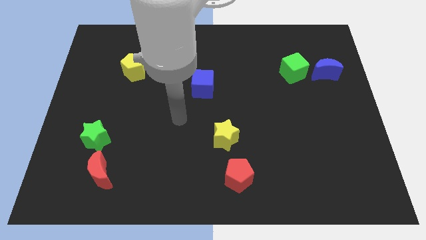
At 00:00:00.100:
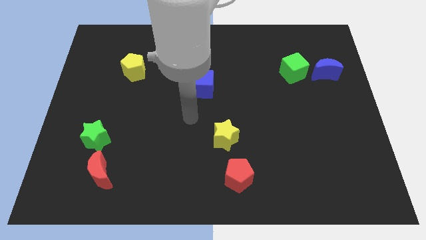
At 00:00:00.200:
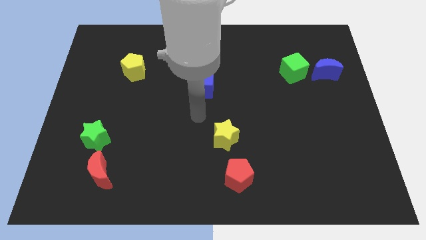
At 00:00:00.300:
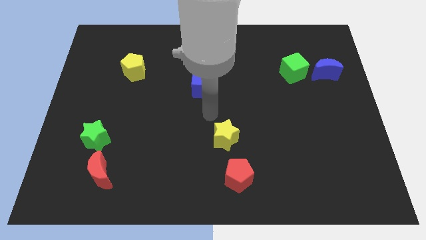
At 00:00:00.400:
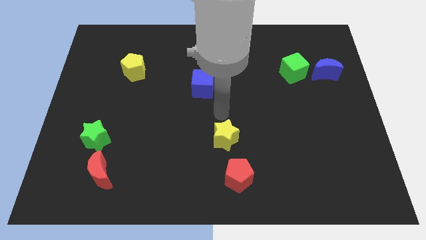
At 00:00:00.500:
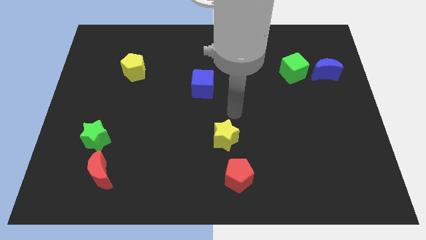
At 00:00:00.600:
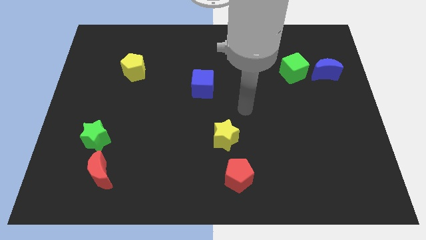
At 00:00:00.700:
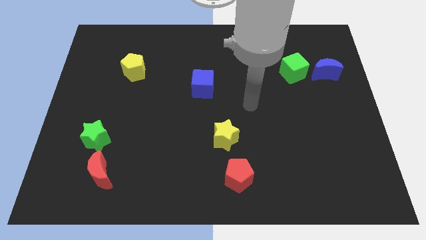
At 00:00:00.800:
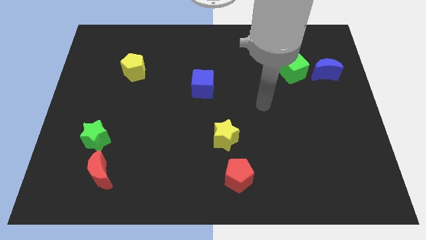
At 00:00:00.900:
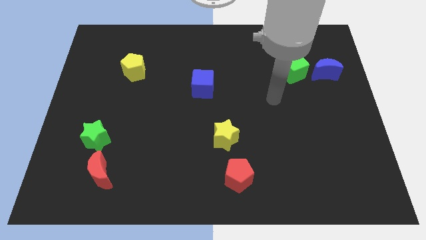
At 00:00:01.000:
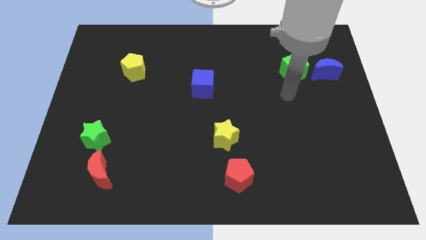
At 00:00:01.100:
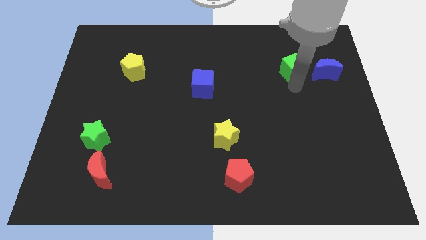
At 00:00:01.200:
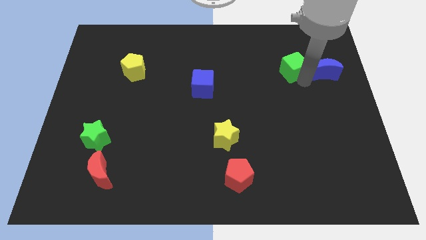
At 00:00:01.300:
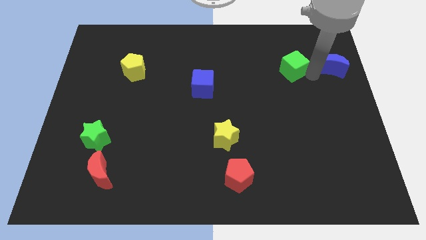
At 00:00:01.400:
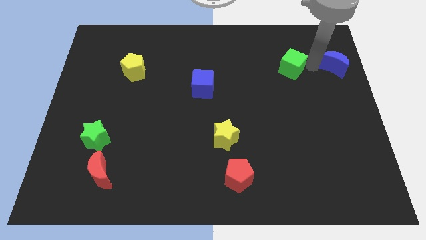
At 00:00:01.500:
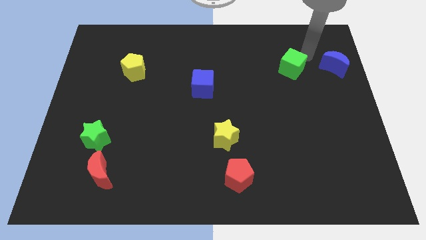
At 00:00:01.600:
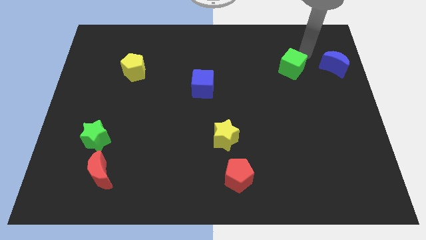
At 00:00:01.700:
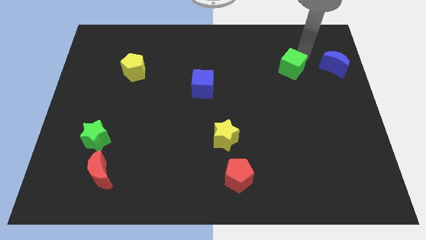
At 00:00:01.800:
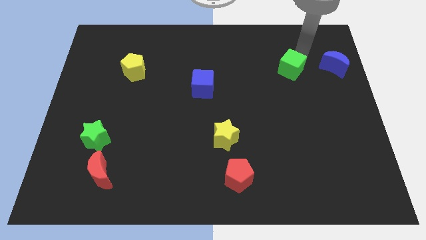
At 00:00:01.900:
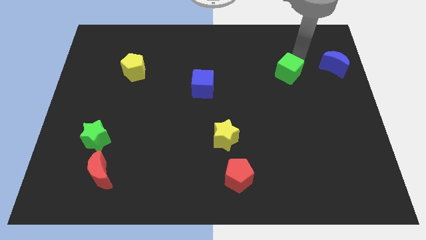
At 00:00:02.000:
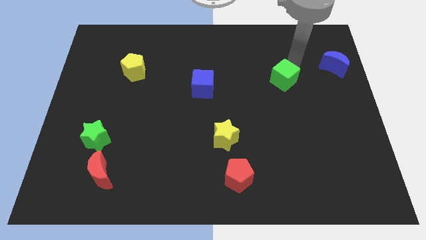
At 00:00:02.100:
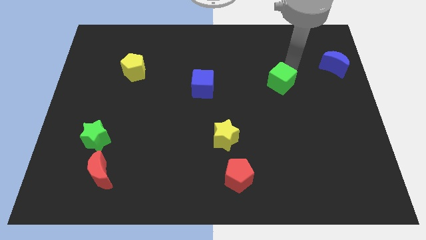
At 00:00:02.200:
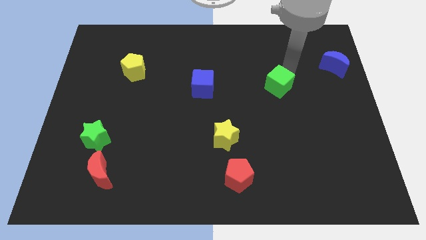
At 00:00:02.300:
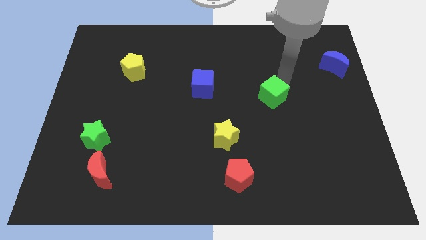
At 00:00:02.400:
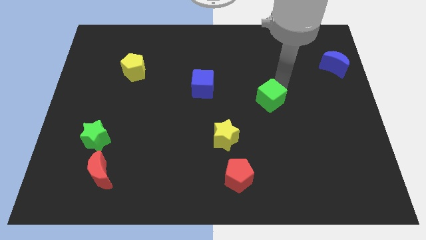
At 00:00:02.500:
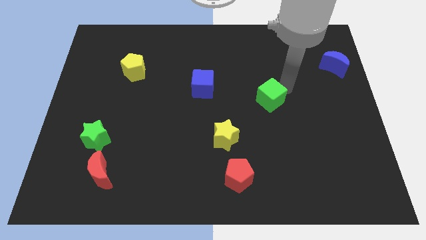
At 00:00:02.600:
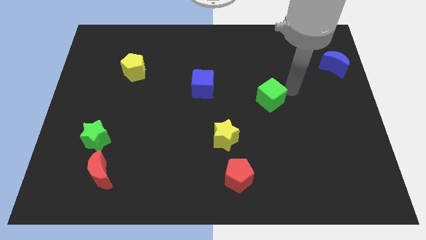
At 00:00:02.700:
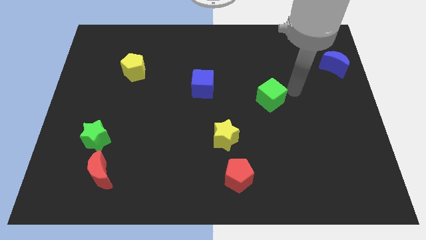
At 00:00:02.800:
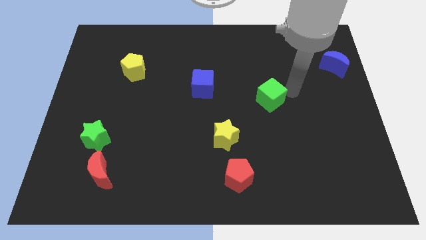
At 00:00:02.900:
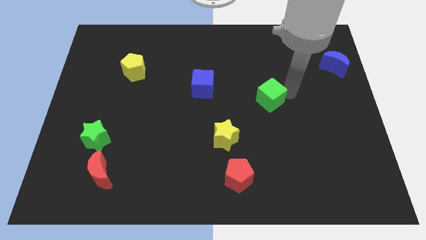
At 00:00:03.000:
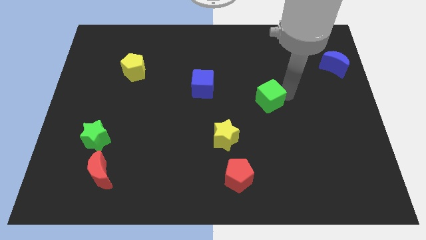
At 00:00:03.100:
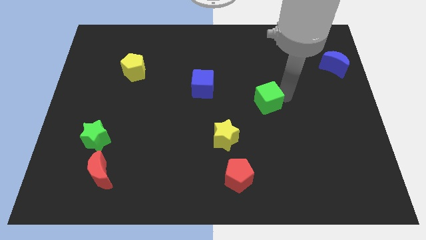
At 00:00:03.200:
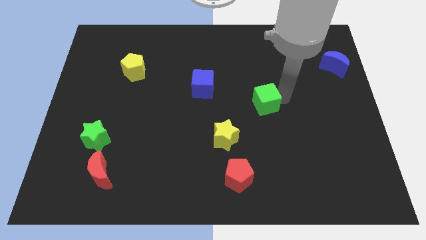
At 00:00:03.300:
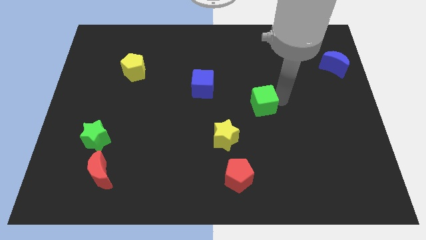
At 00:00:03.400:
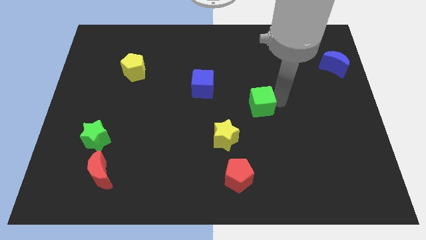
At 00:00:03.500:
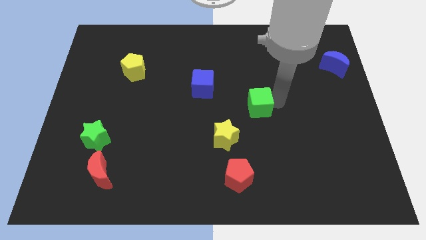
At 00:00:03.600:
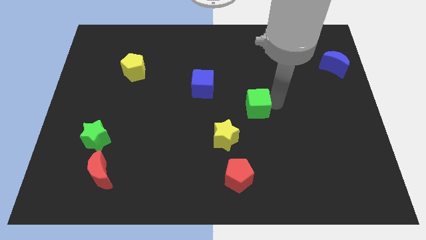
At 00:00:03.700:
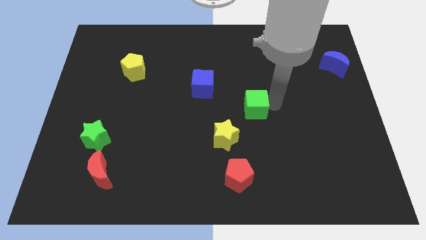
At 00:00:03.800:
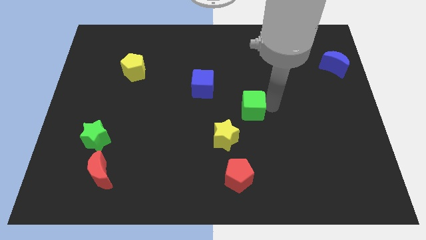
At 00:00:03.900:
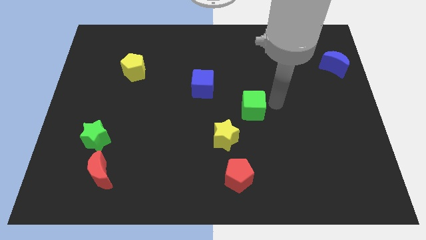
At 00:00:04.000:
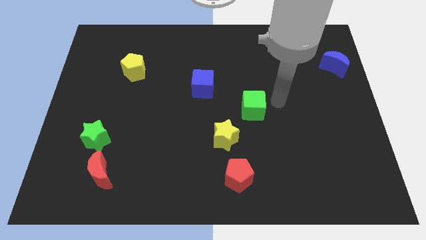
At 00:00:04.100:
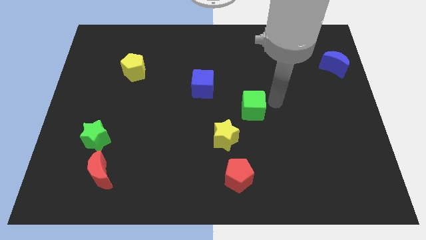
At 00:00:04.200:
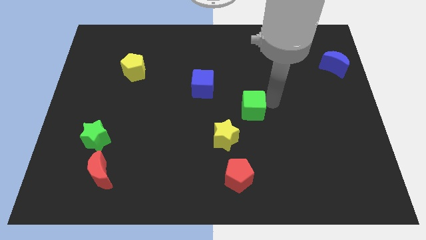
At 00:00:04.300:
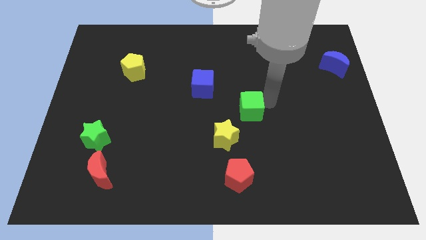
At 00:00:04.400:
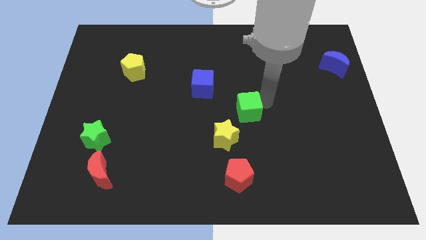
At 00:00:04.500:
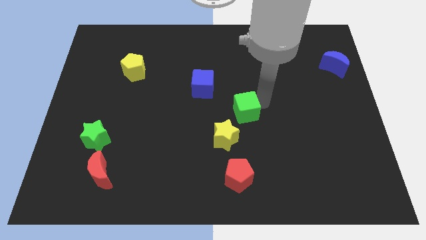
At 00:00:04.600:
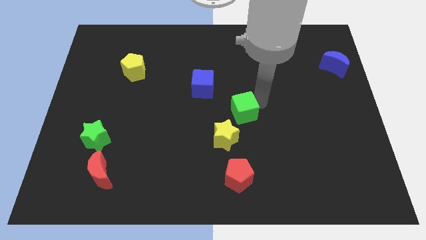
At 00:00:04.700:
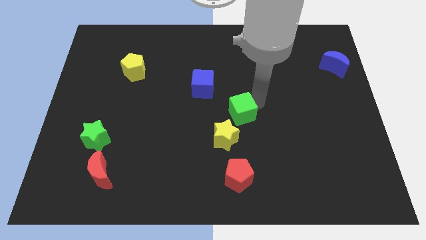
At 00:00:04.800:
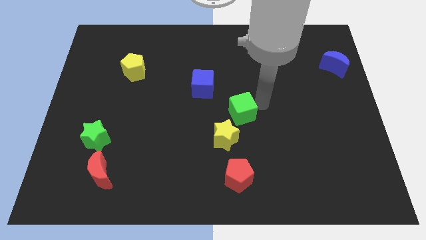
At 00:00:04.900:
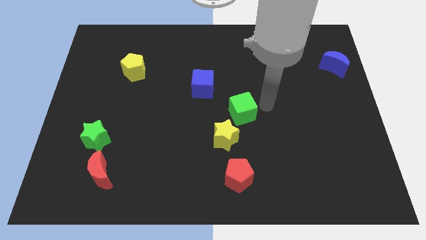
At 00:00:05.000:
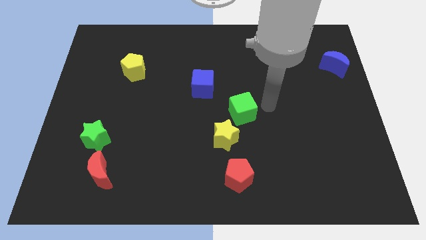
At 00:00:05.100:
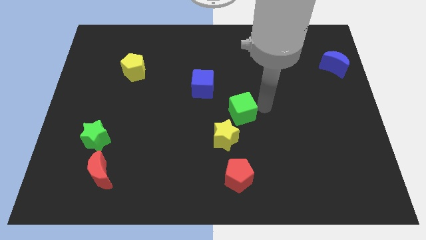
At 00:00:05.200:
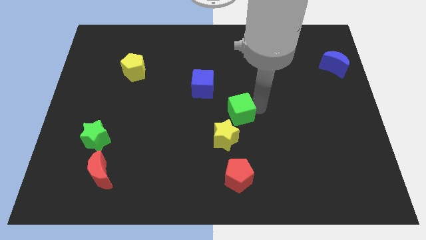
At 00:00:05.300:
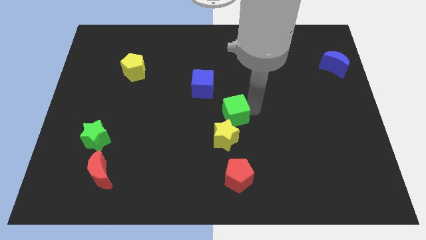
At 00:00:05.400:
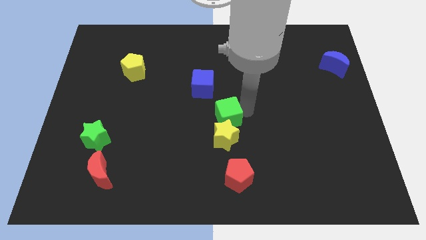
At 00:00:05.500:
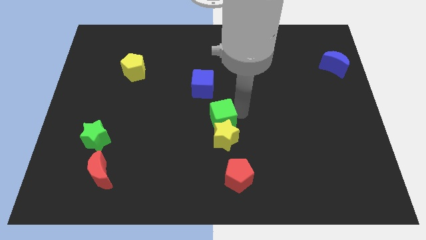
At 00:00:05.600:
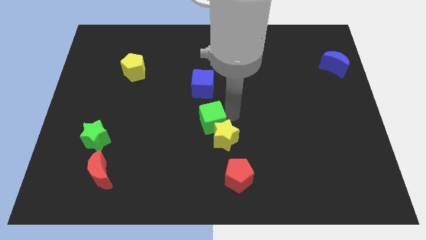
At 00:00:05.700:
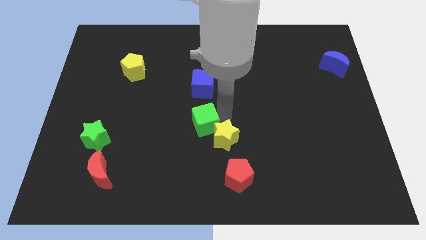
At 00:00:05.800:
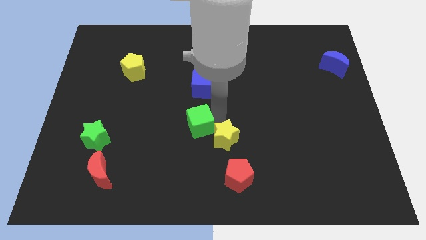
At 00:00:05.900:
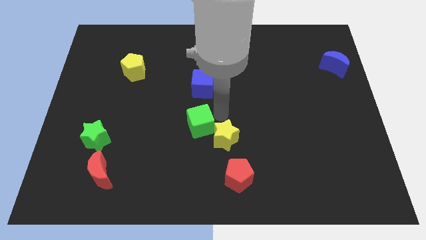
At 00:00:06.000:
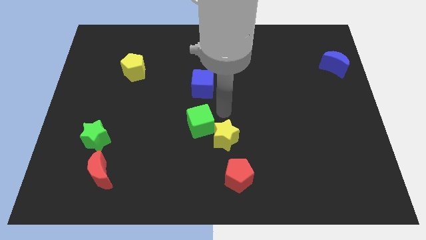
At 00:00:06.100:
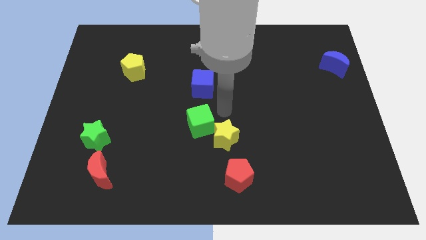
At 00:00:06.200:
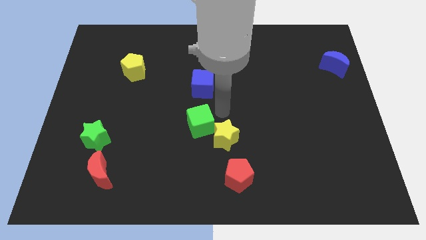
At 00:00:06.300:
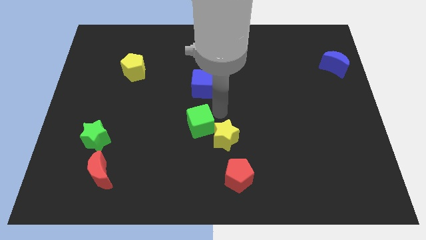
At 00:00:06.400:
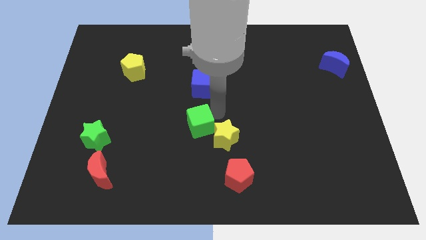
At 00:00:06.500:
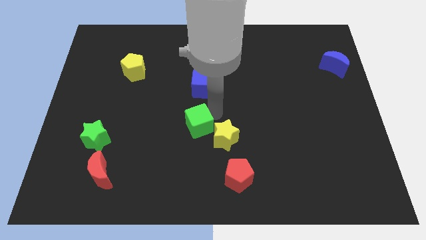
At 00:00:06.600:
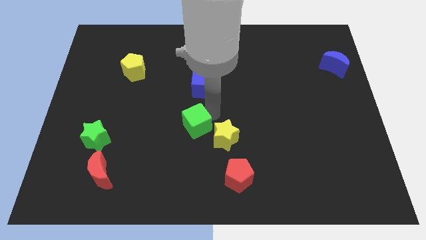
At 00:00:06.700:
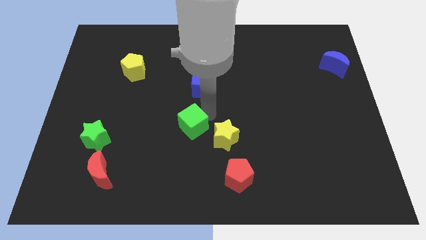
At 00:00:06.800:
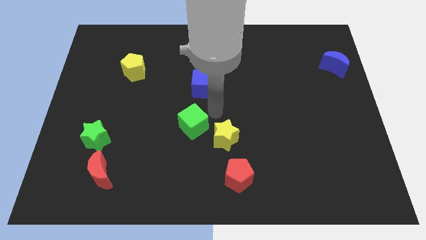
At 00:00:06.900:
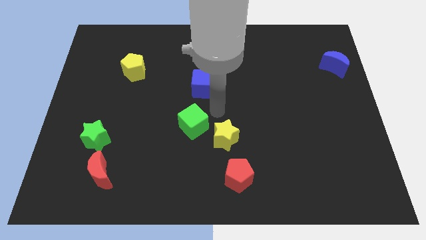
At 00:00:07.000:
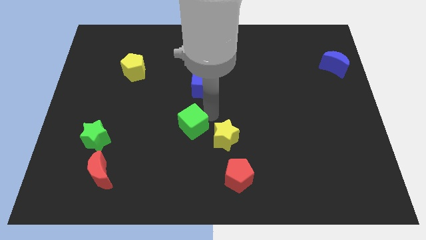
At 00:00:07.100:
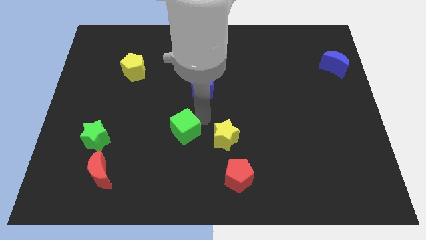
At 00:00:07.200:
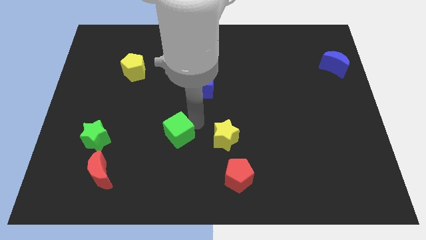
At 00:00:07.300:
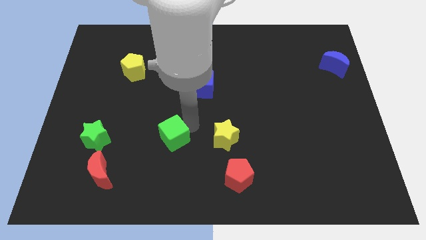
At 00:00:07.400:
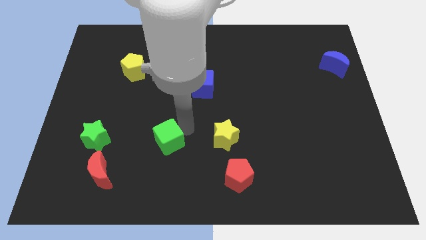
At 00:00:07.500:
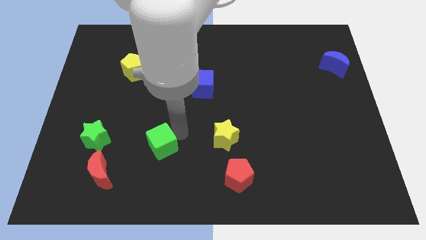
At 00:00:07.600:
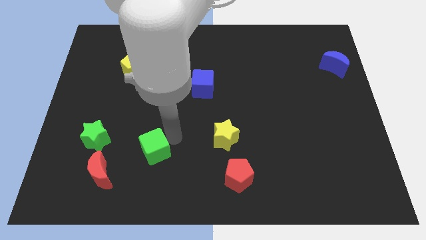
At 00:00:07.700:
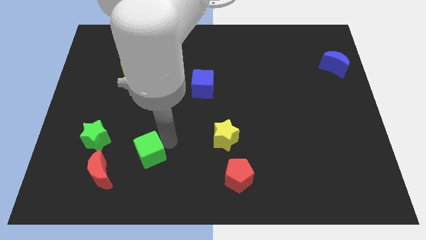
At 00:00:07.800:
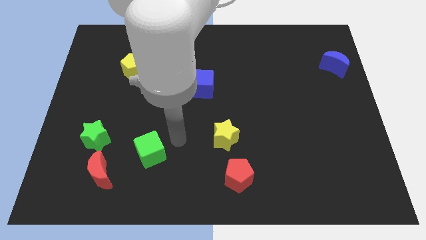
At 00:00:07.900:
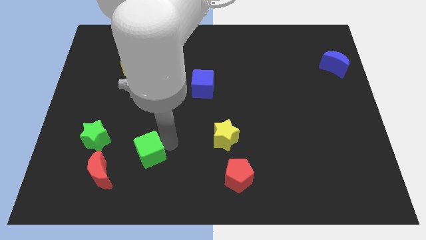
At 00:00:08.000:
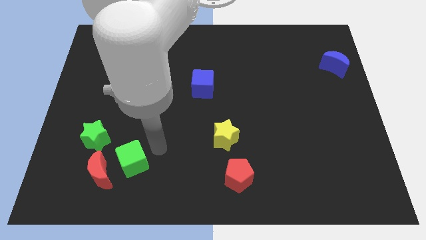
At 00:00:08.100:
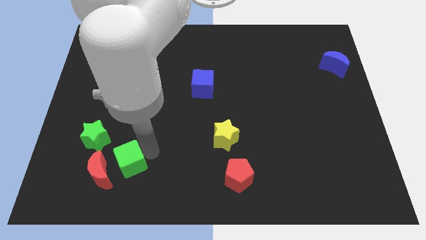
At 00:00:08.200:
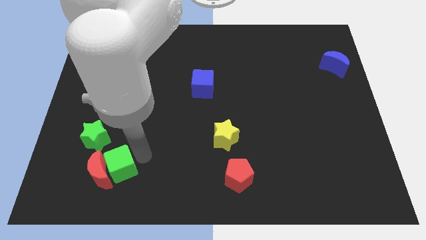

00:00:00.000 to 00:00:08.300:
put the green cube next to the red moon
